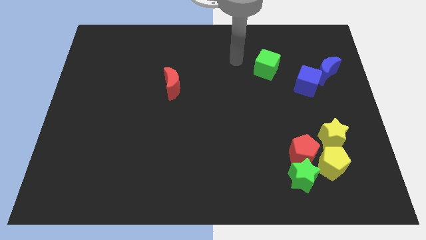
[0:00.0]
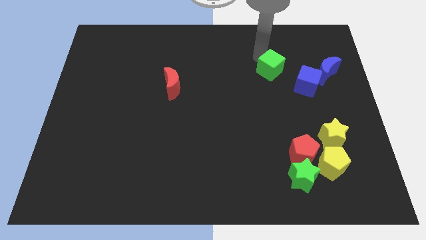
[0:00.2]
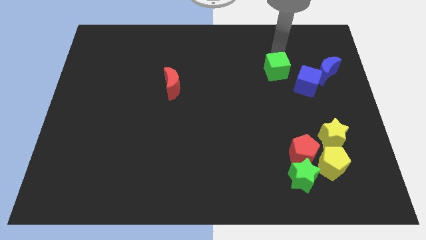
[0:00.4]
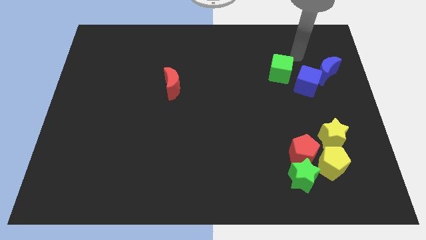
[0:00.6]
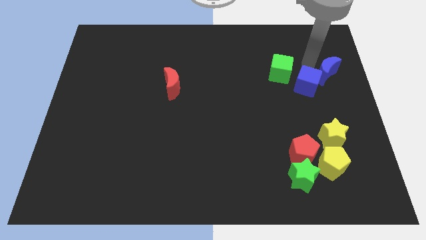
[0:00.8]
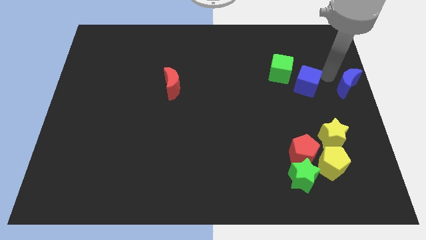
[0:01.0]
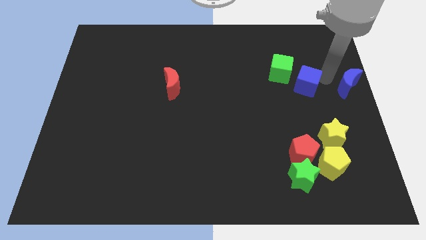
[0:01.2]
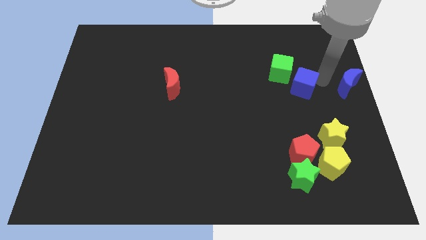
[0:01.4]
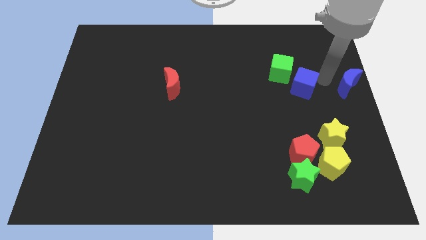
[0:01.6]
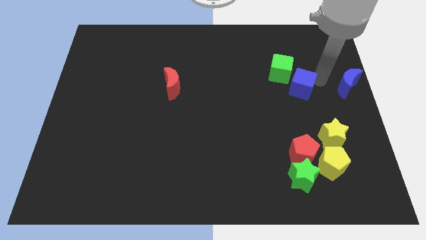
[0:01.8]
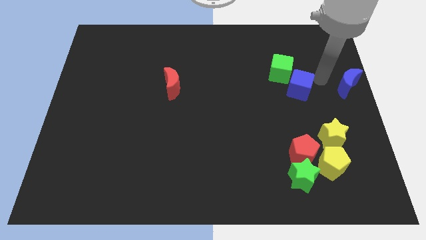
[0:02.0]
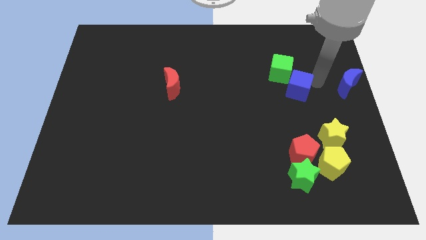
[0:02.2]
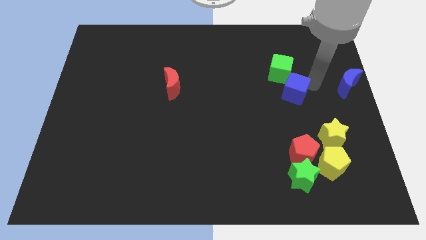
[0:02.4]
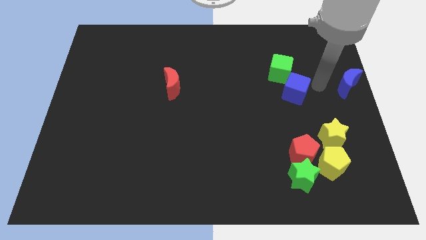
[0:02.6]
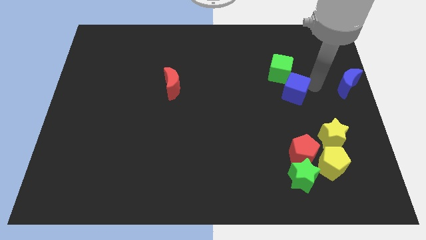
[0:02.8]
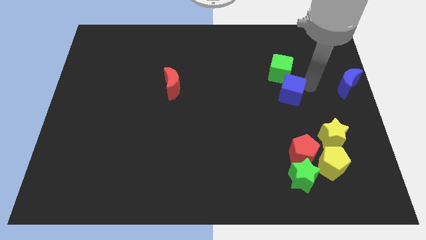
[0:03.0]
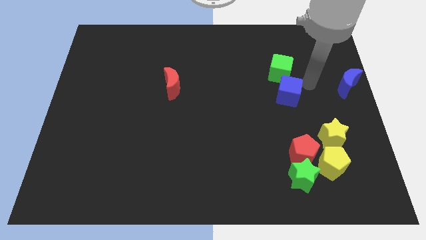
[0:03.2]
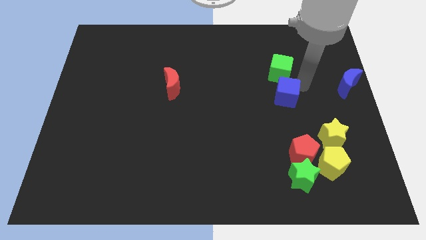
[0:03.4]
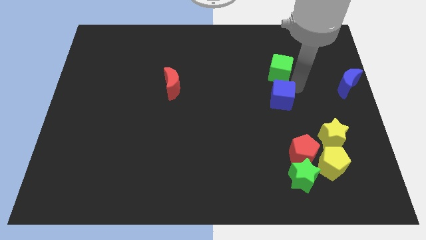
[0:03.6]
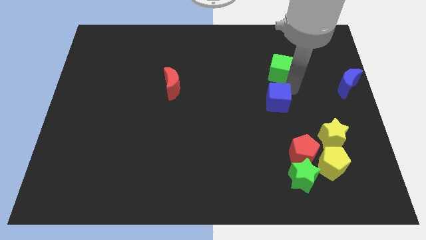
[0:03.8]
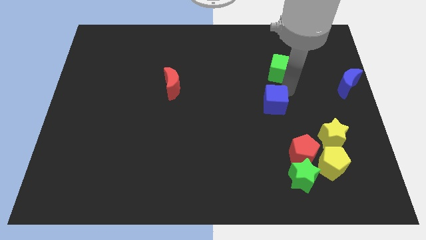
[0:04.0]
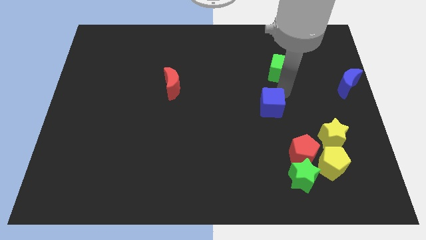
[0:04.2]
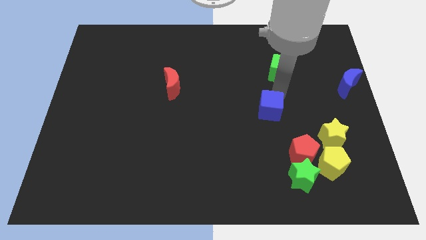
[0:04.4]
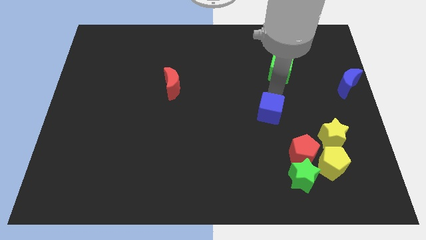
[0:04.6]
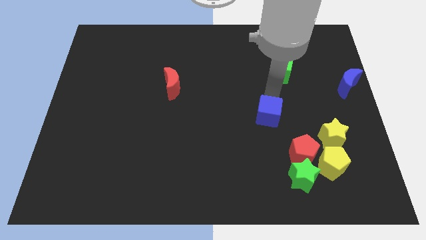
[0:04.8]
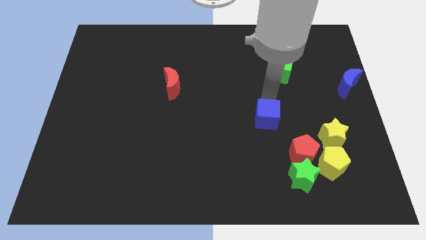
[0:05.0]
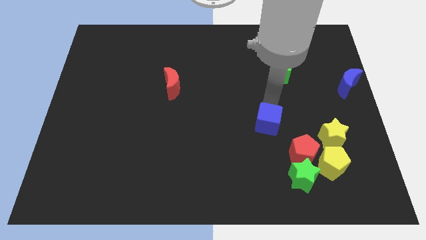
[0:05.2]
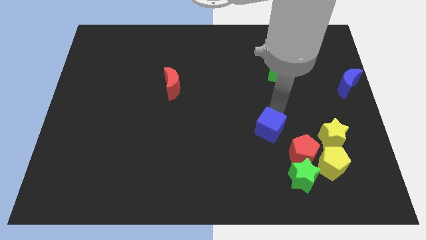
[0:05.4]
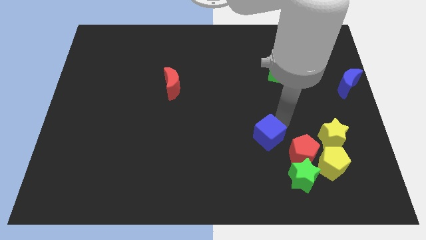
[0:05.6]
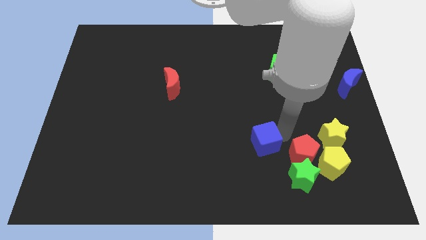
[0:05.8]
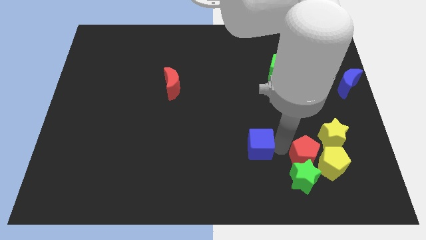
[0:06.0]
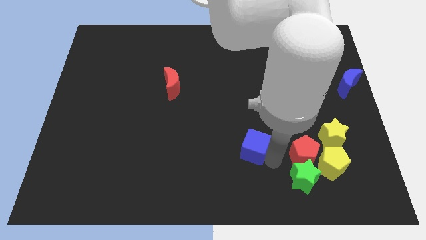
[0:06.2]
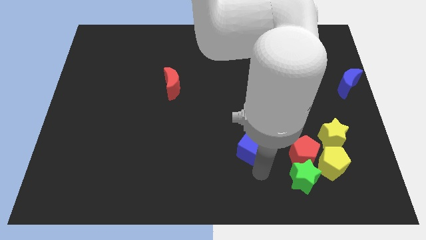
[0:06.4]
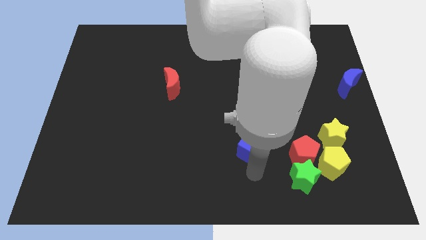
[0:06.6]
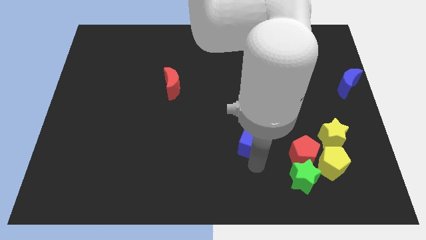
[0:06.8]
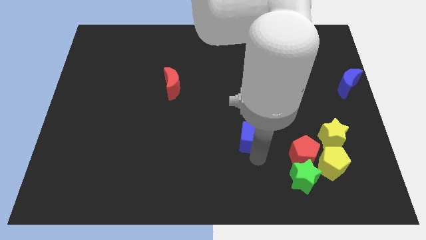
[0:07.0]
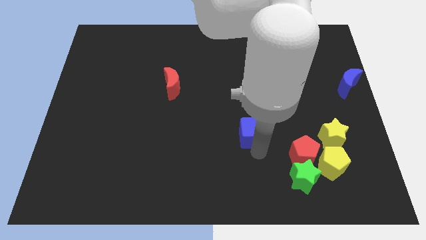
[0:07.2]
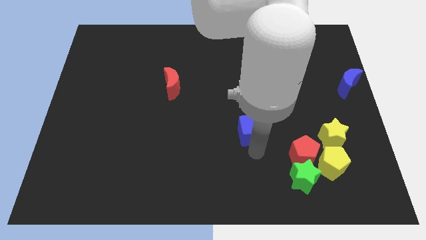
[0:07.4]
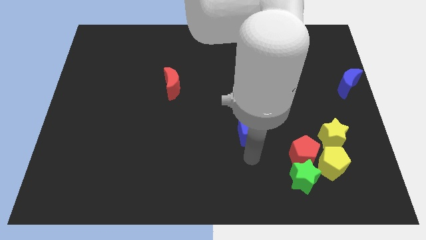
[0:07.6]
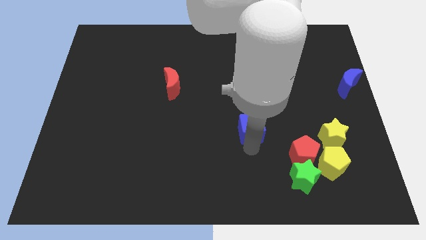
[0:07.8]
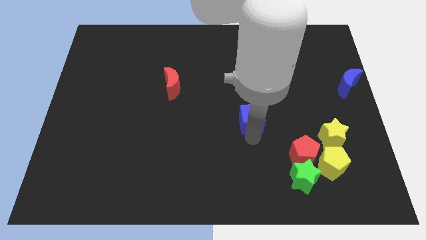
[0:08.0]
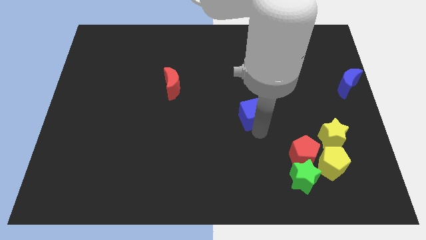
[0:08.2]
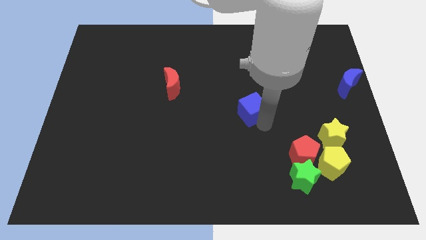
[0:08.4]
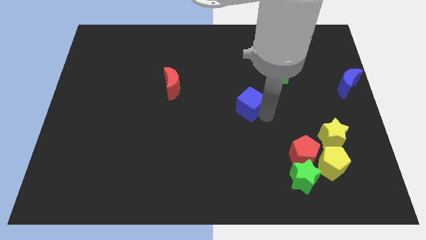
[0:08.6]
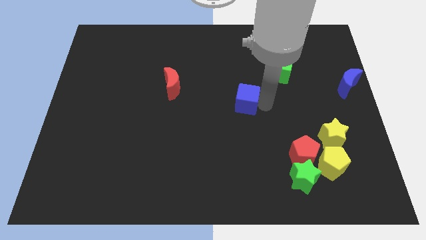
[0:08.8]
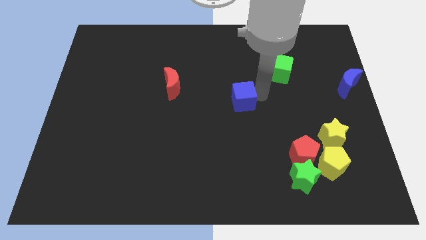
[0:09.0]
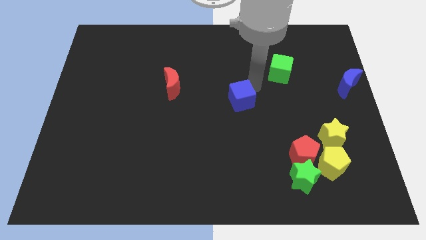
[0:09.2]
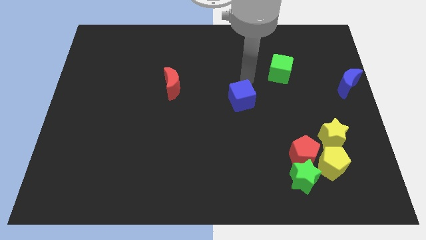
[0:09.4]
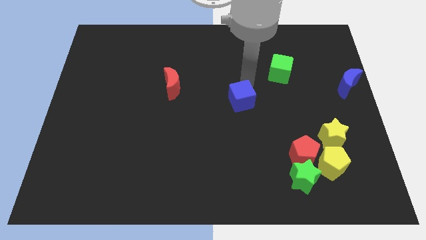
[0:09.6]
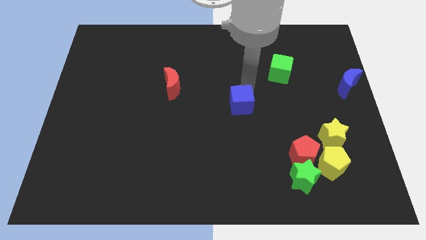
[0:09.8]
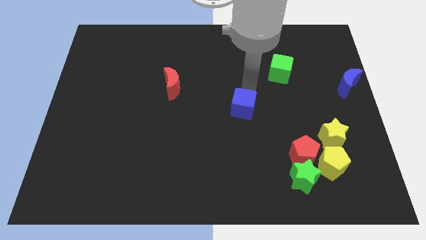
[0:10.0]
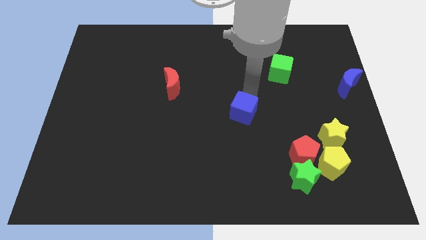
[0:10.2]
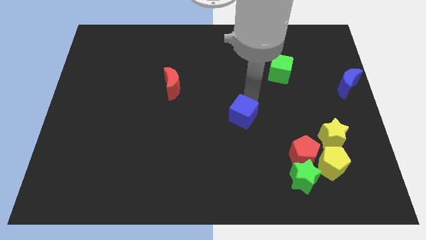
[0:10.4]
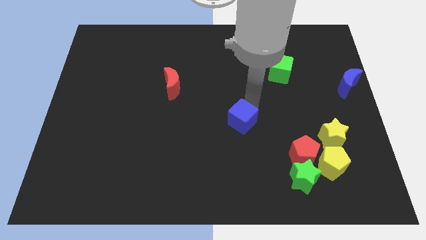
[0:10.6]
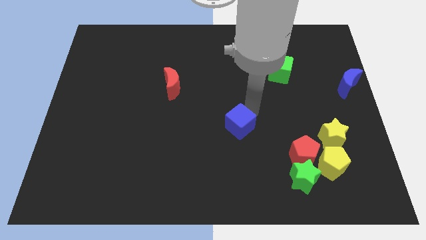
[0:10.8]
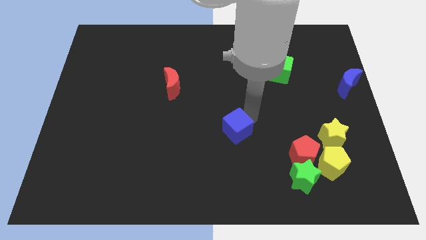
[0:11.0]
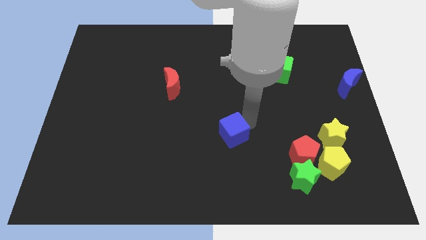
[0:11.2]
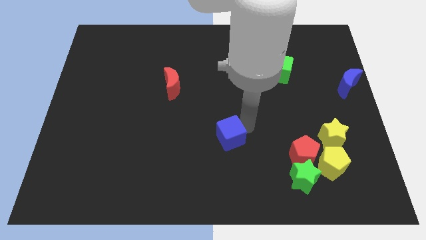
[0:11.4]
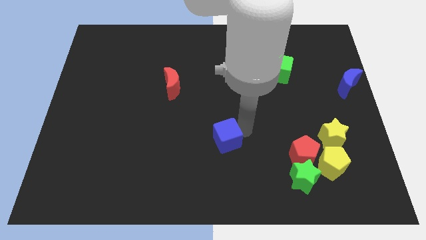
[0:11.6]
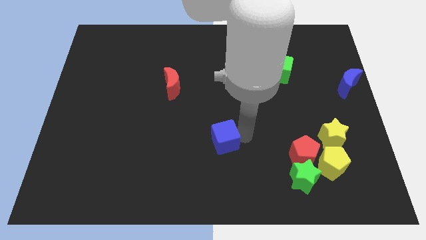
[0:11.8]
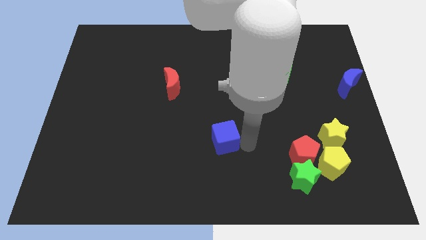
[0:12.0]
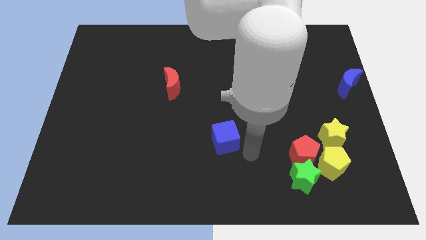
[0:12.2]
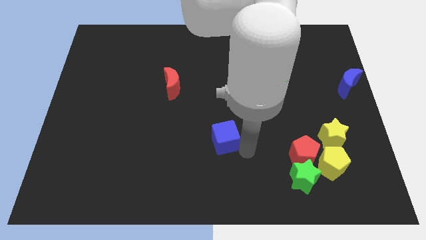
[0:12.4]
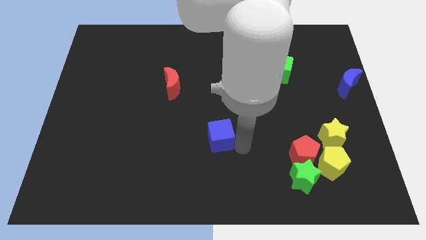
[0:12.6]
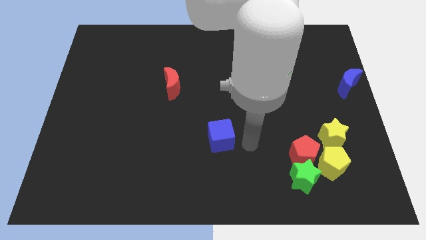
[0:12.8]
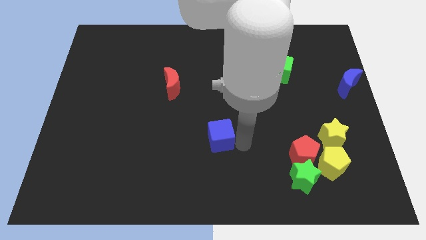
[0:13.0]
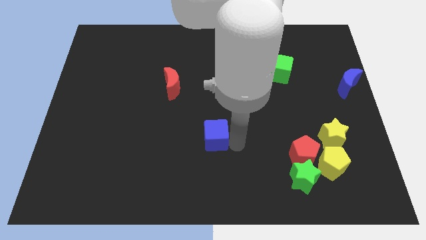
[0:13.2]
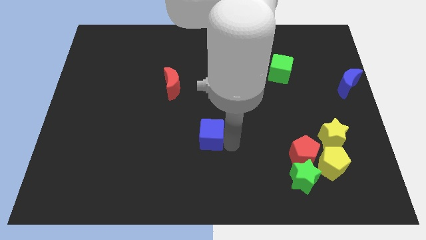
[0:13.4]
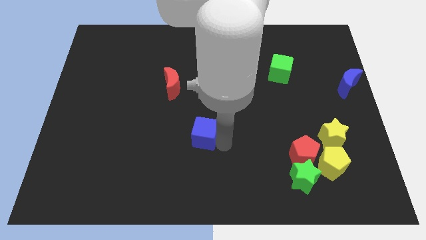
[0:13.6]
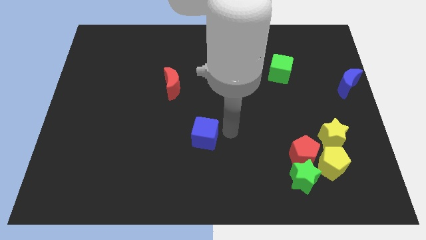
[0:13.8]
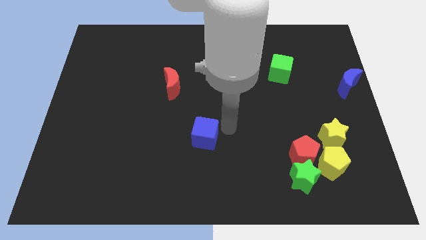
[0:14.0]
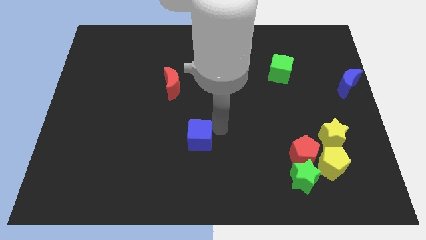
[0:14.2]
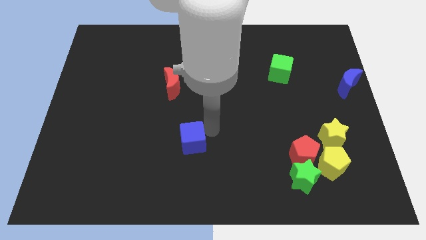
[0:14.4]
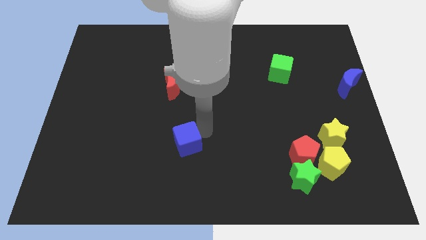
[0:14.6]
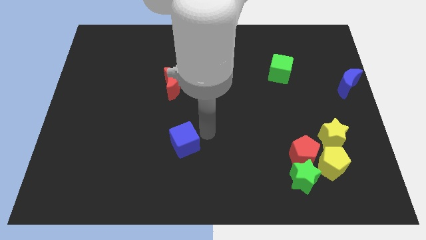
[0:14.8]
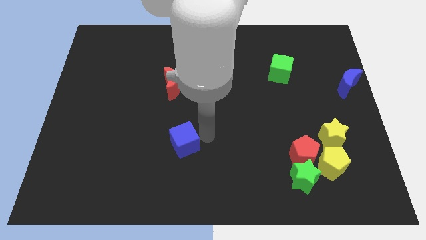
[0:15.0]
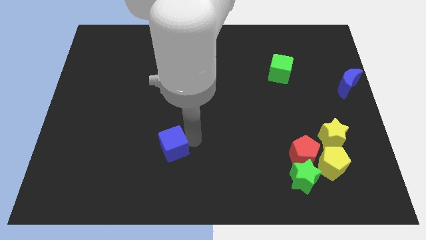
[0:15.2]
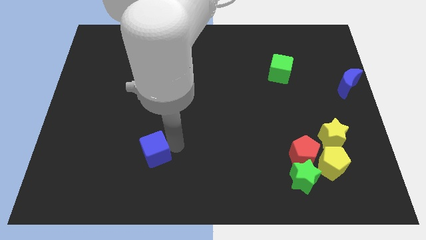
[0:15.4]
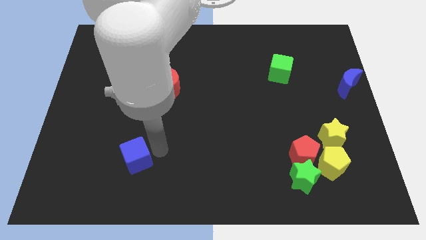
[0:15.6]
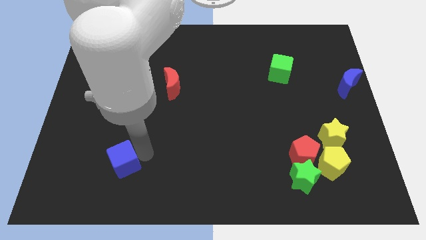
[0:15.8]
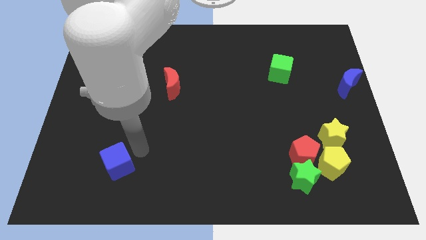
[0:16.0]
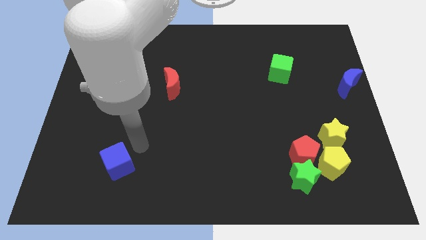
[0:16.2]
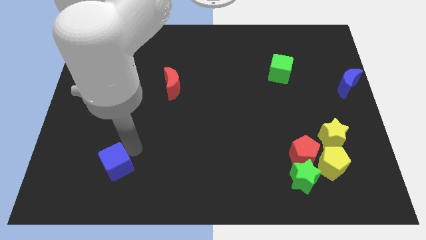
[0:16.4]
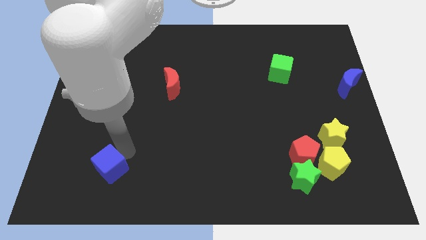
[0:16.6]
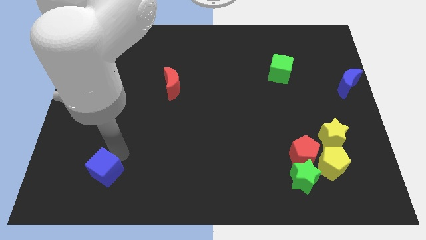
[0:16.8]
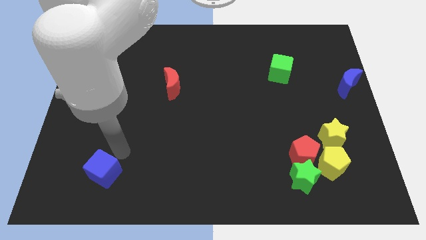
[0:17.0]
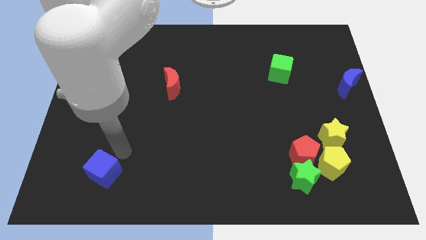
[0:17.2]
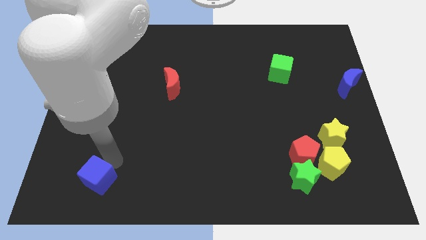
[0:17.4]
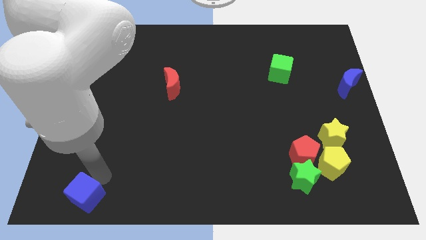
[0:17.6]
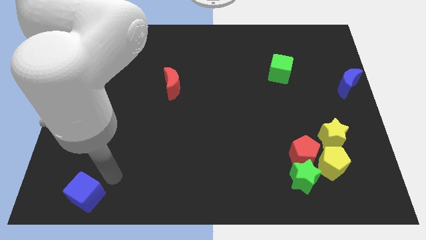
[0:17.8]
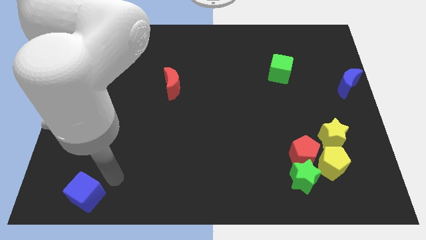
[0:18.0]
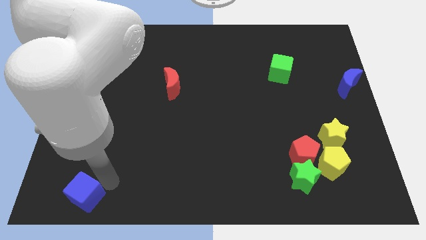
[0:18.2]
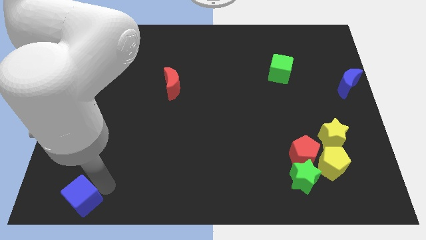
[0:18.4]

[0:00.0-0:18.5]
push the blue cube to the lower left corner
